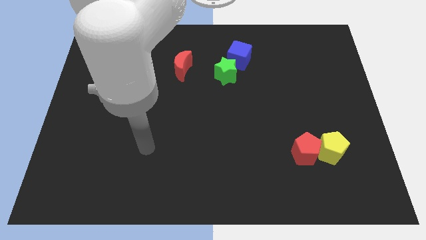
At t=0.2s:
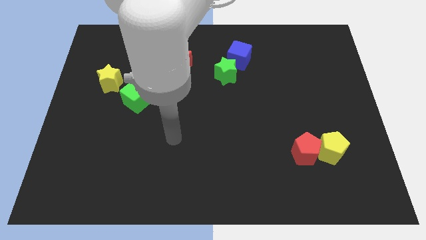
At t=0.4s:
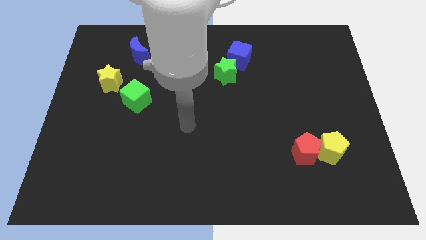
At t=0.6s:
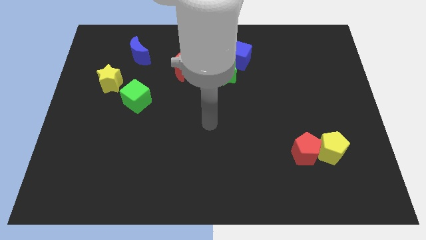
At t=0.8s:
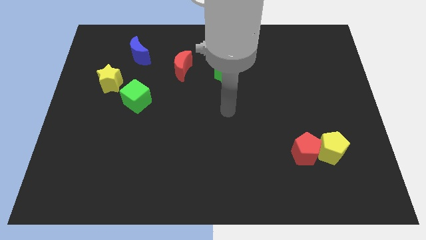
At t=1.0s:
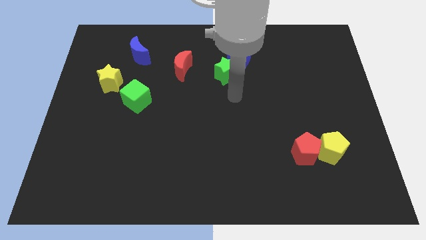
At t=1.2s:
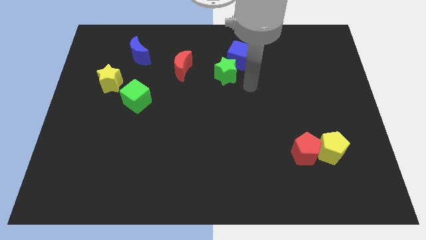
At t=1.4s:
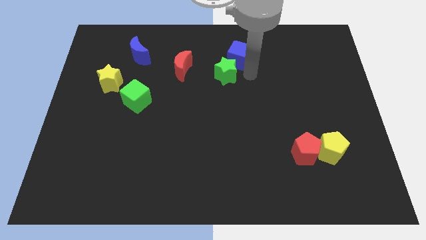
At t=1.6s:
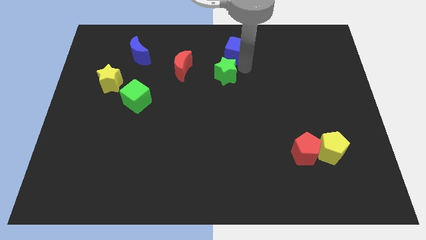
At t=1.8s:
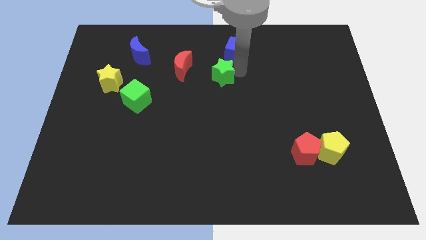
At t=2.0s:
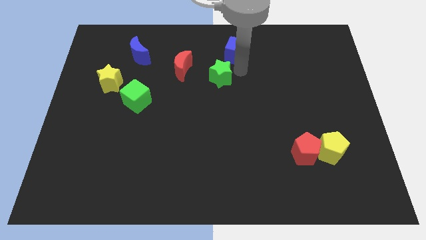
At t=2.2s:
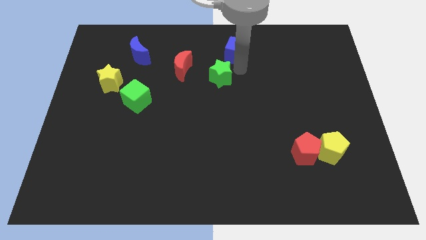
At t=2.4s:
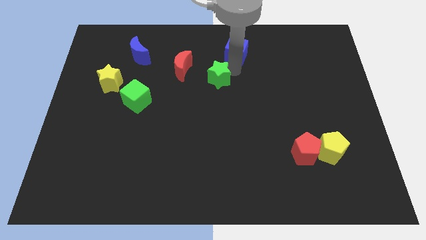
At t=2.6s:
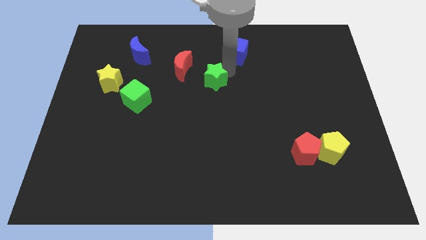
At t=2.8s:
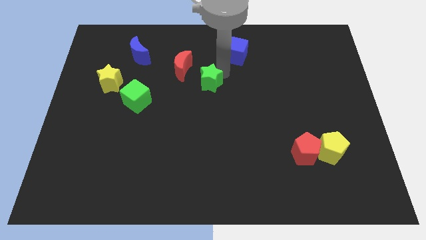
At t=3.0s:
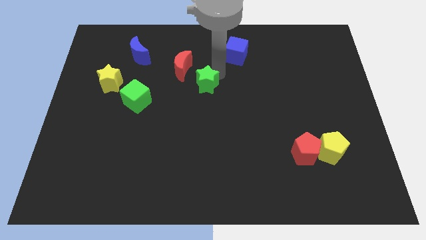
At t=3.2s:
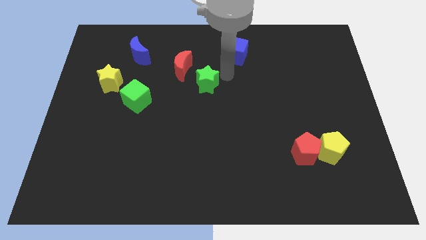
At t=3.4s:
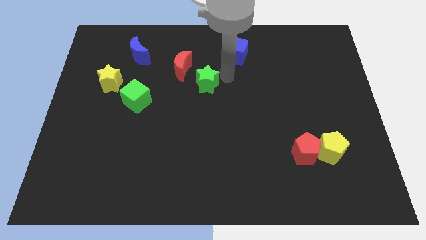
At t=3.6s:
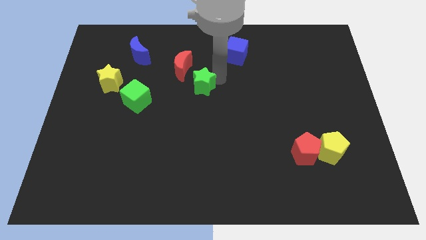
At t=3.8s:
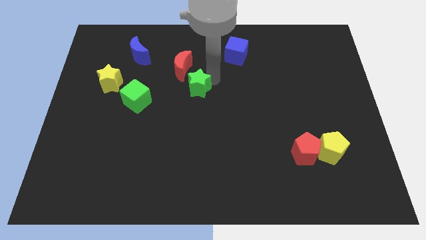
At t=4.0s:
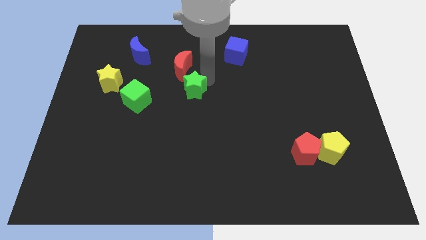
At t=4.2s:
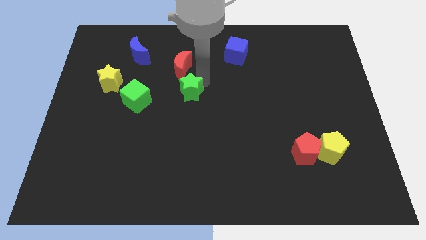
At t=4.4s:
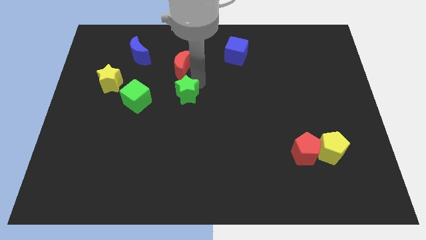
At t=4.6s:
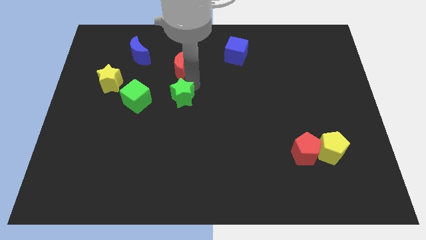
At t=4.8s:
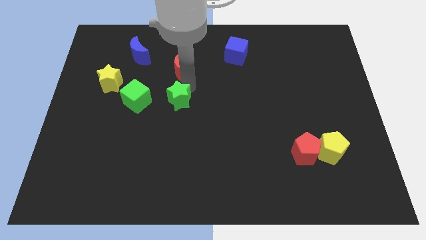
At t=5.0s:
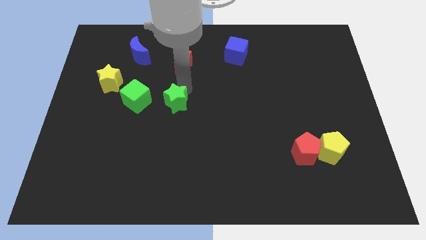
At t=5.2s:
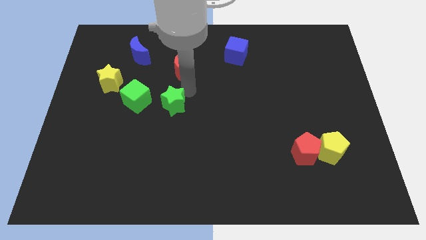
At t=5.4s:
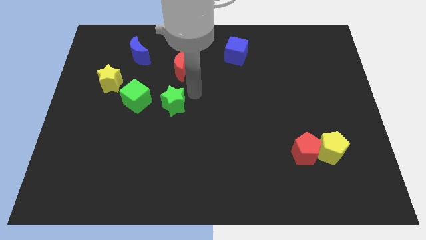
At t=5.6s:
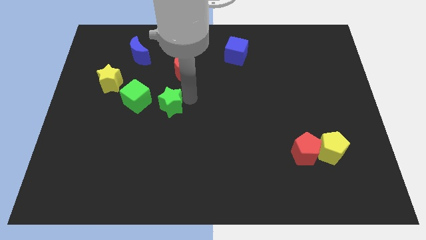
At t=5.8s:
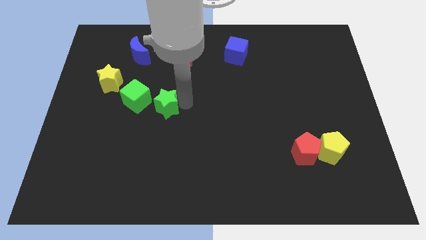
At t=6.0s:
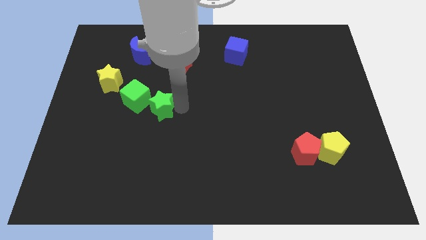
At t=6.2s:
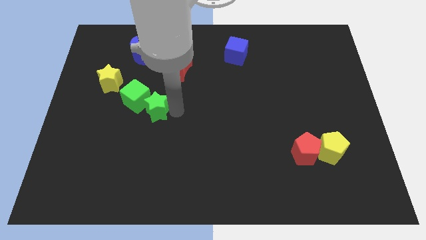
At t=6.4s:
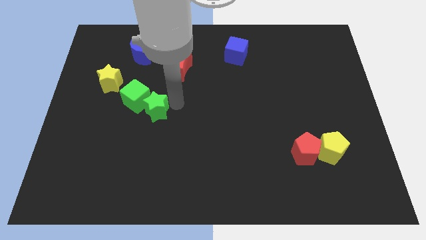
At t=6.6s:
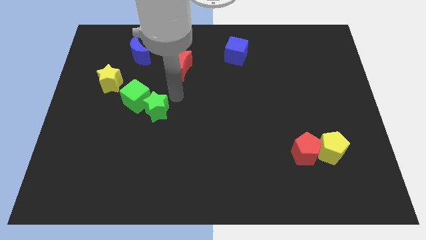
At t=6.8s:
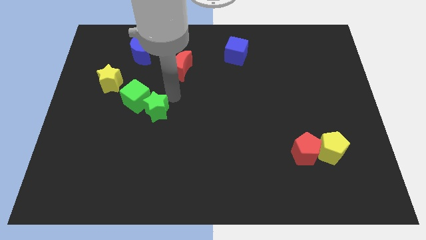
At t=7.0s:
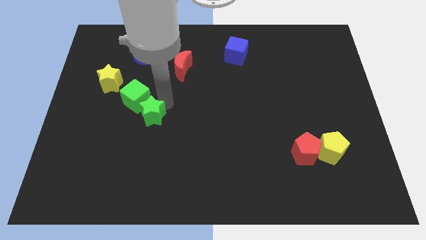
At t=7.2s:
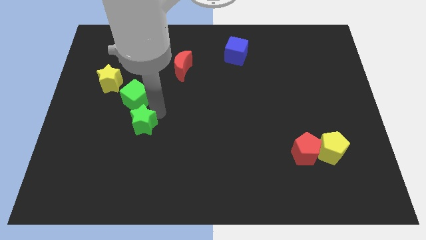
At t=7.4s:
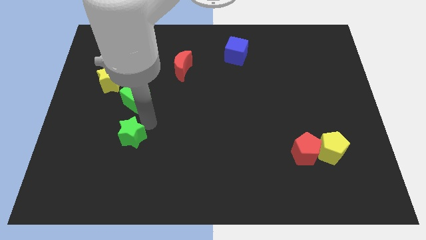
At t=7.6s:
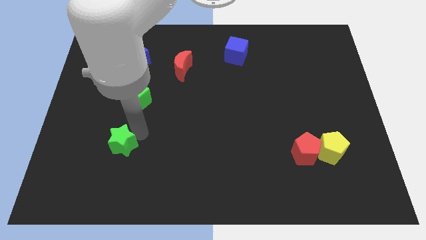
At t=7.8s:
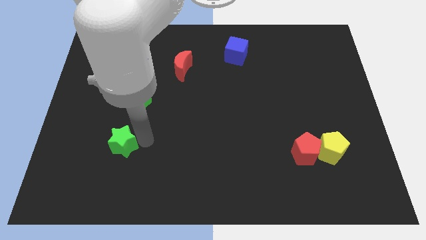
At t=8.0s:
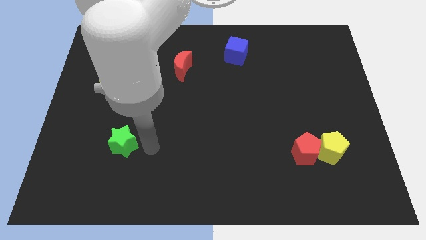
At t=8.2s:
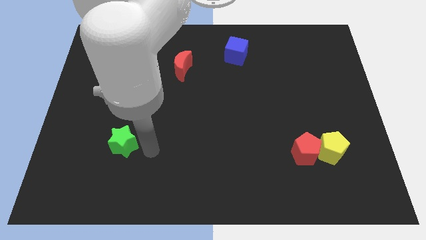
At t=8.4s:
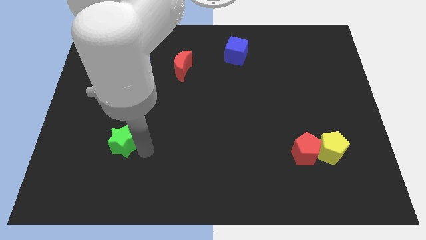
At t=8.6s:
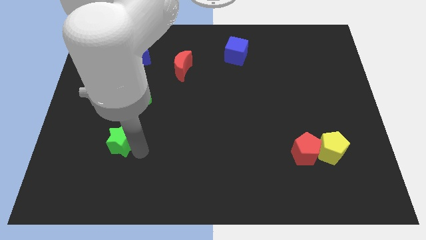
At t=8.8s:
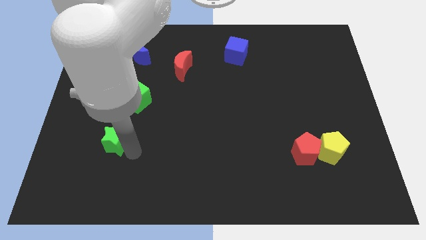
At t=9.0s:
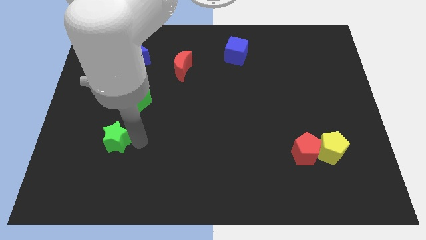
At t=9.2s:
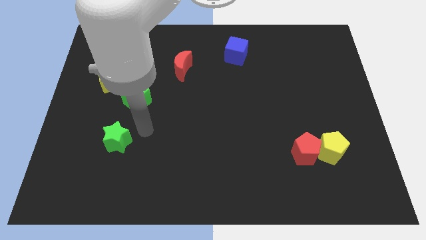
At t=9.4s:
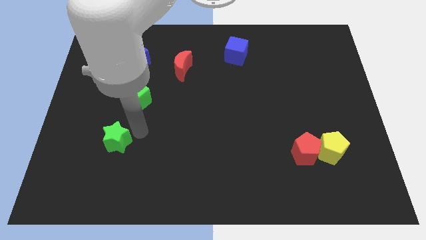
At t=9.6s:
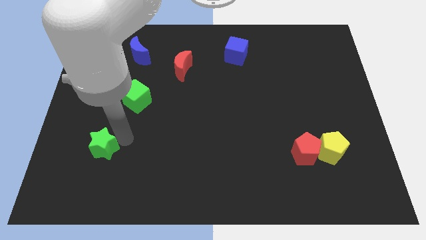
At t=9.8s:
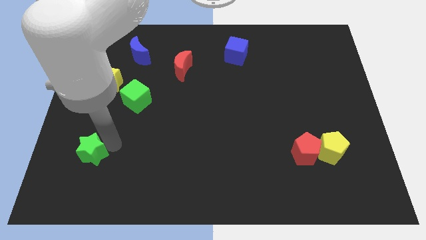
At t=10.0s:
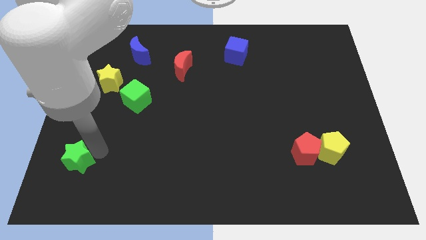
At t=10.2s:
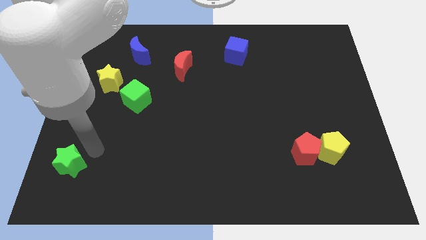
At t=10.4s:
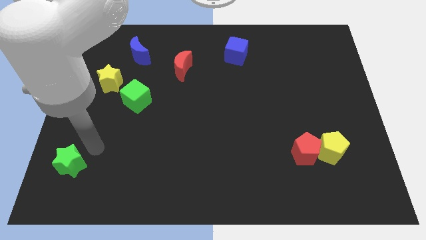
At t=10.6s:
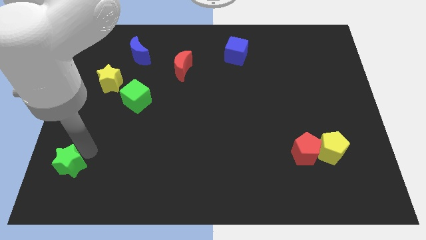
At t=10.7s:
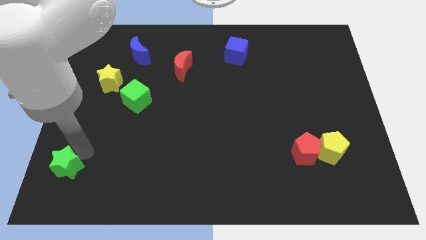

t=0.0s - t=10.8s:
slide the green star to the lower left corner

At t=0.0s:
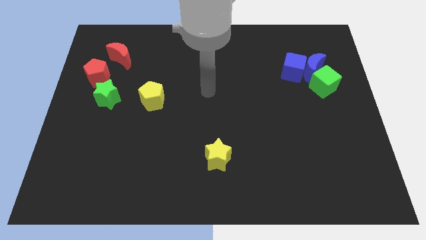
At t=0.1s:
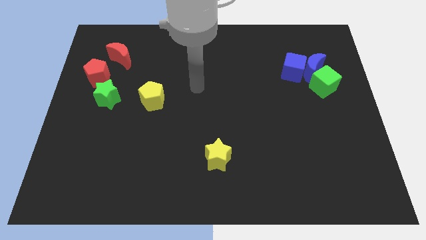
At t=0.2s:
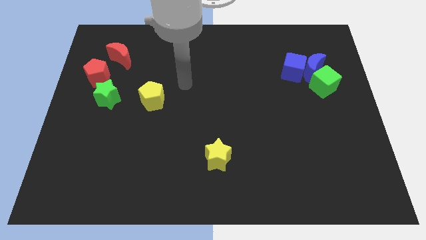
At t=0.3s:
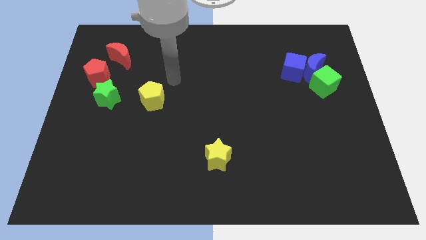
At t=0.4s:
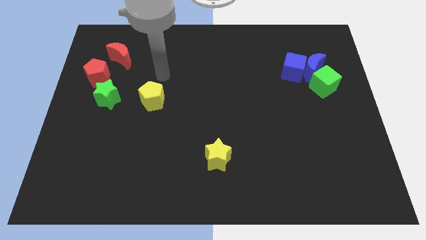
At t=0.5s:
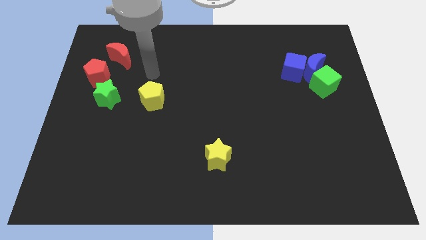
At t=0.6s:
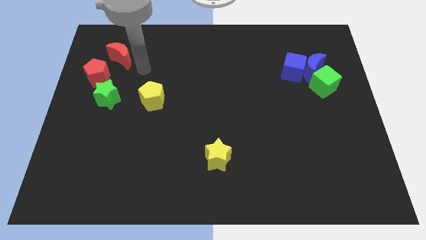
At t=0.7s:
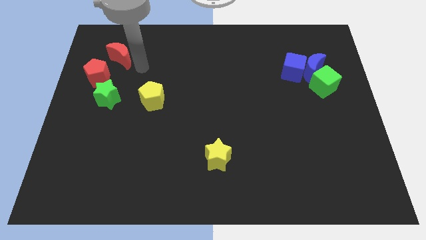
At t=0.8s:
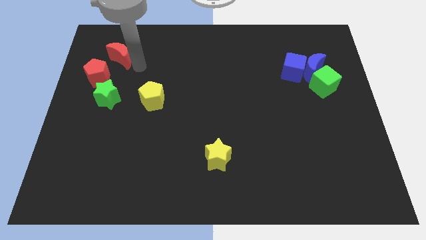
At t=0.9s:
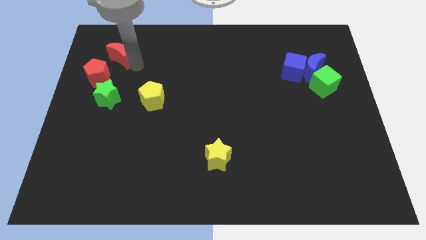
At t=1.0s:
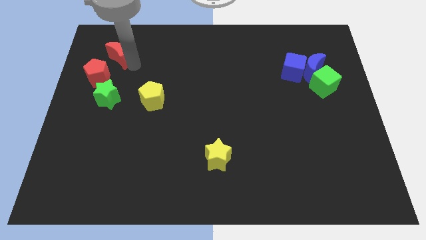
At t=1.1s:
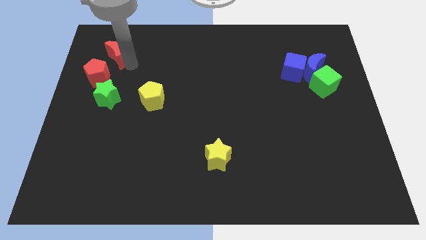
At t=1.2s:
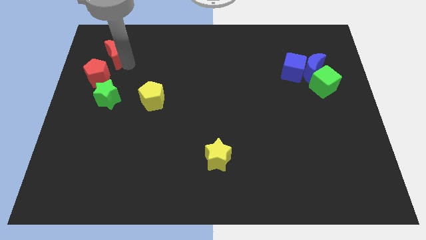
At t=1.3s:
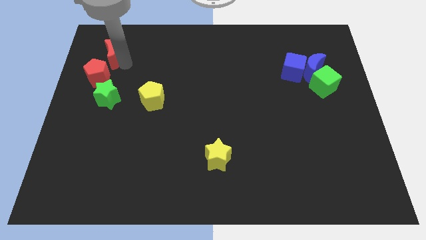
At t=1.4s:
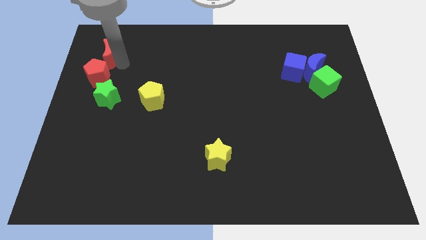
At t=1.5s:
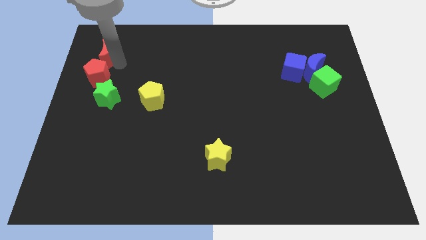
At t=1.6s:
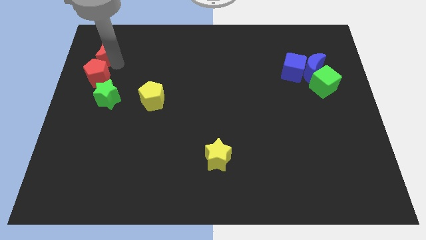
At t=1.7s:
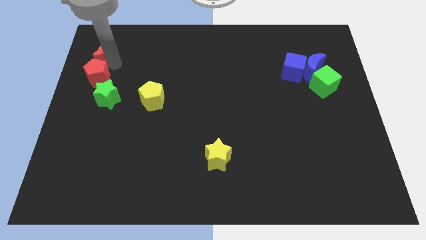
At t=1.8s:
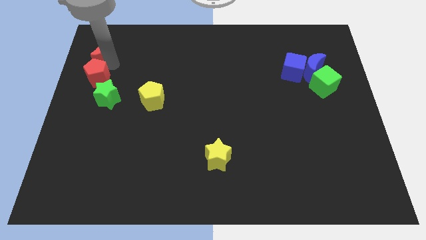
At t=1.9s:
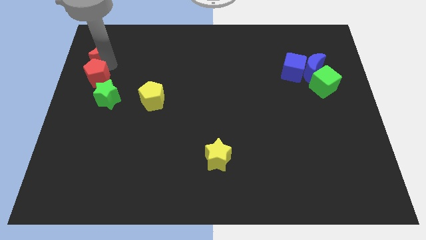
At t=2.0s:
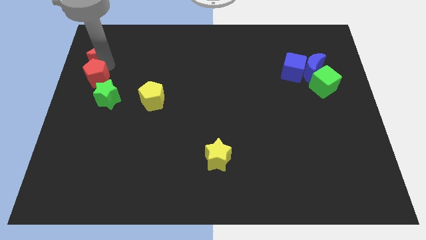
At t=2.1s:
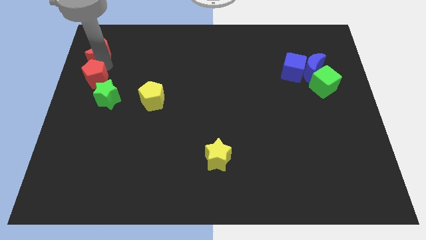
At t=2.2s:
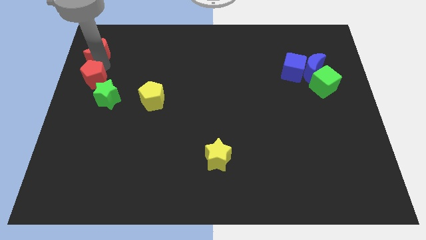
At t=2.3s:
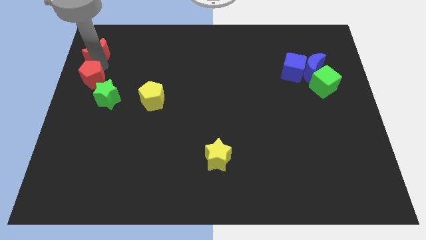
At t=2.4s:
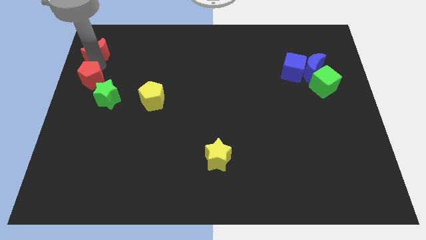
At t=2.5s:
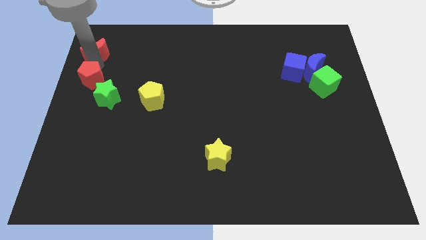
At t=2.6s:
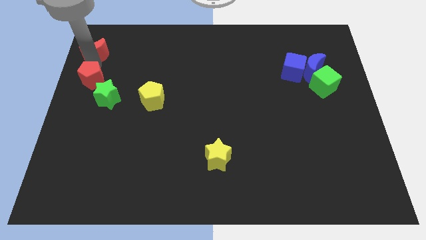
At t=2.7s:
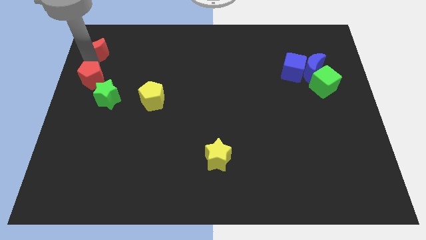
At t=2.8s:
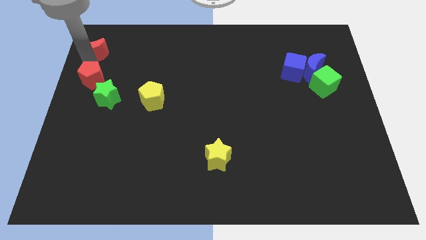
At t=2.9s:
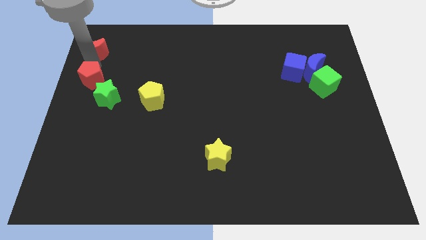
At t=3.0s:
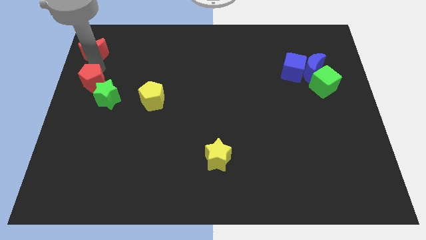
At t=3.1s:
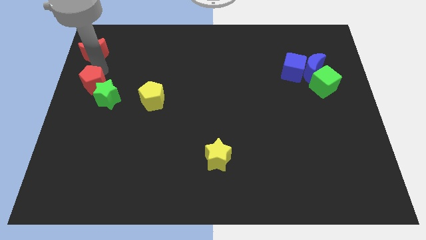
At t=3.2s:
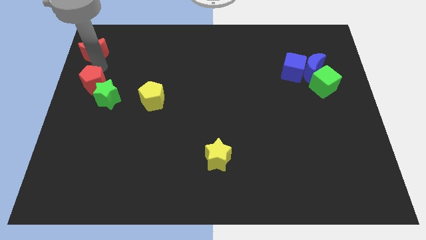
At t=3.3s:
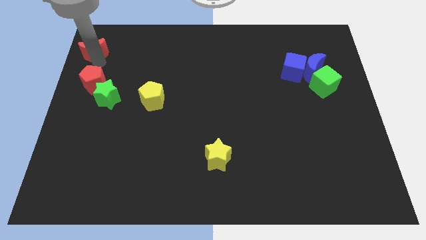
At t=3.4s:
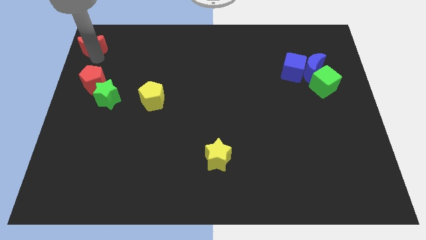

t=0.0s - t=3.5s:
push the red moon to the top left of the board
